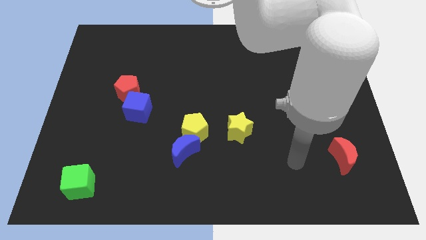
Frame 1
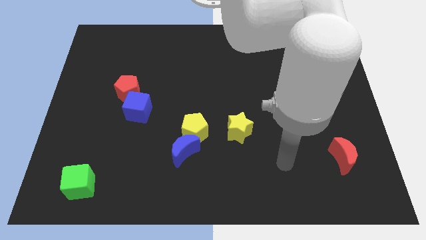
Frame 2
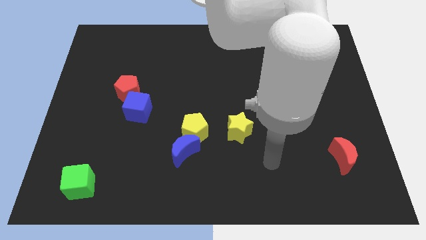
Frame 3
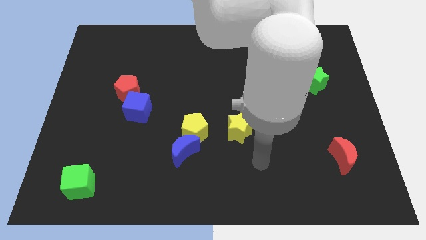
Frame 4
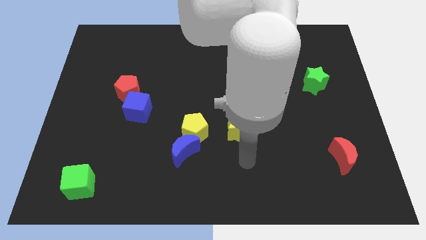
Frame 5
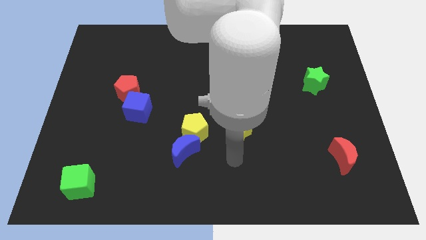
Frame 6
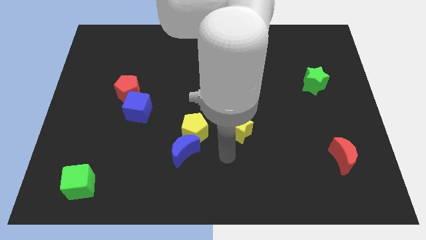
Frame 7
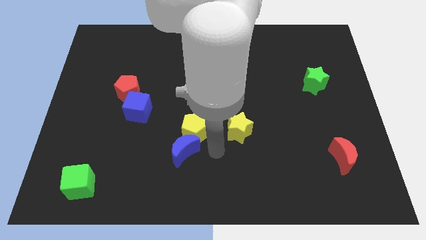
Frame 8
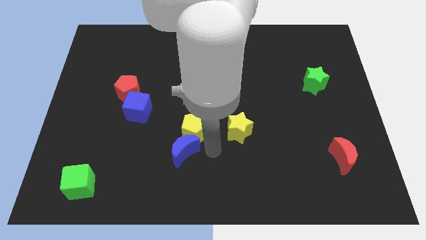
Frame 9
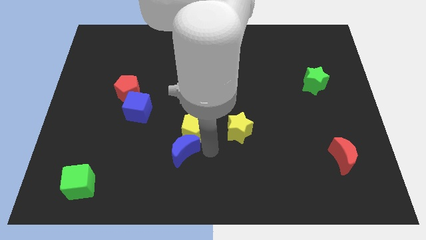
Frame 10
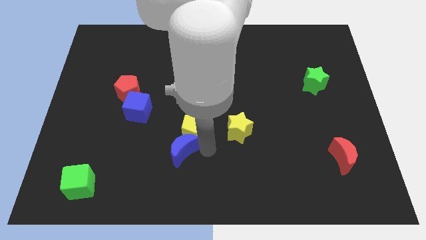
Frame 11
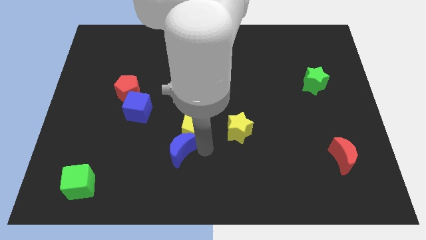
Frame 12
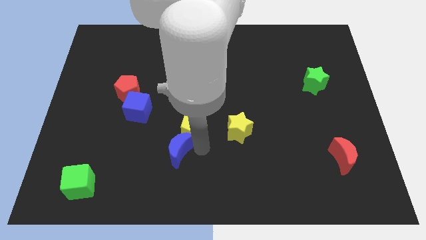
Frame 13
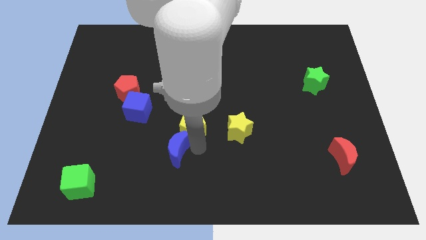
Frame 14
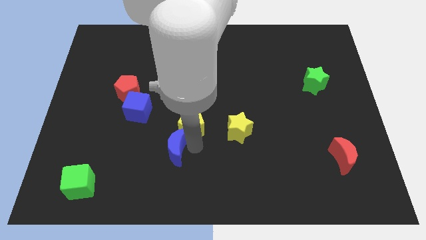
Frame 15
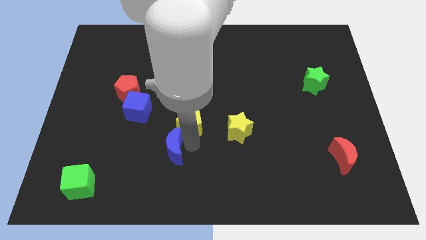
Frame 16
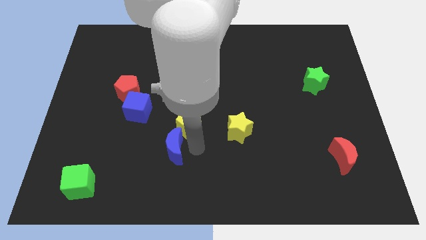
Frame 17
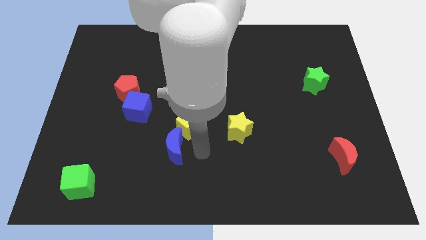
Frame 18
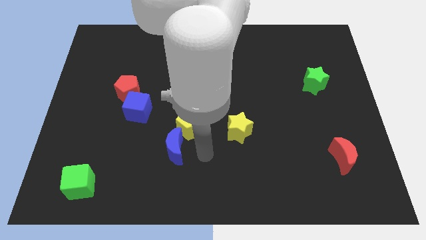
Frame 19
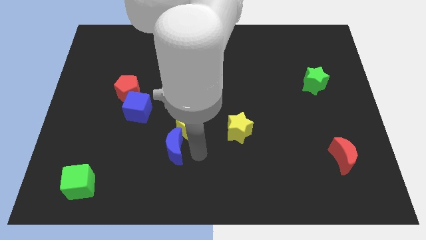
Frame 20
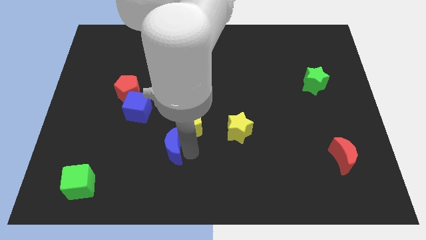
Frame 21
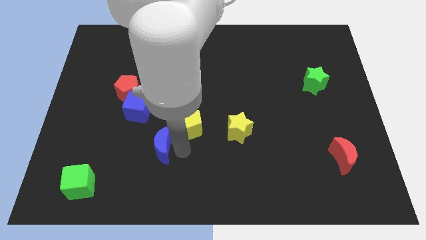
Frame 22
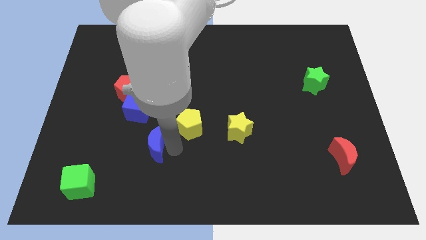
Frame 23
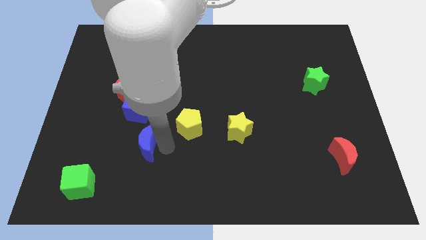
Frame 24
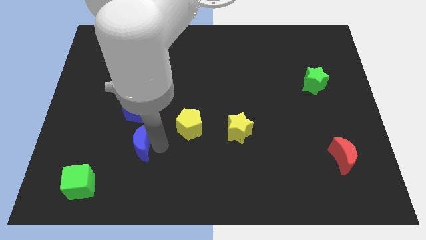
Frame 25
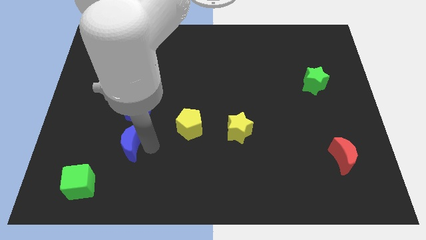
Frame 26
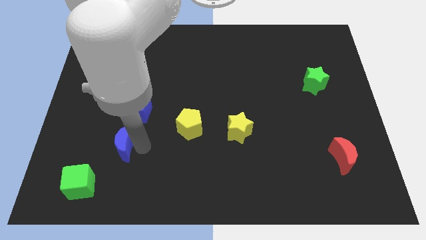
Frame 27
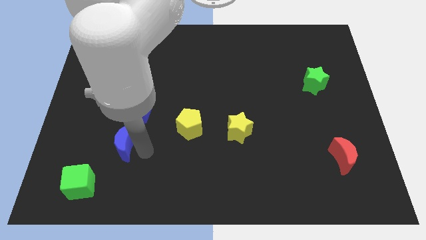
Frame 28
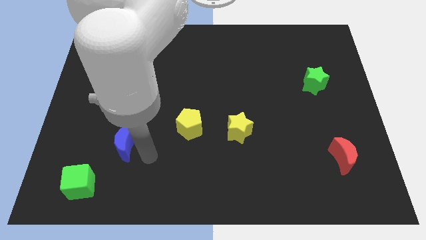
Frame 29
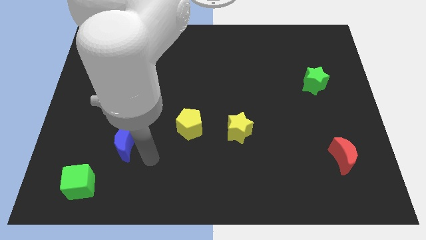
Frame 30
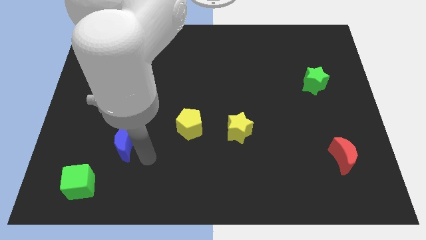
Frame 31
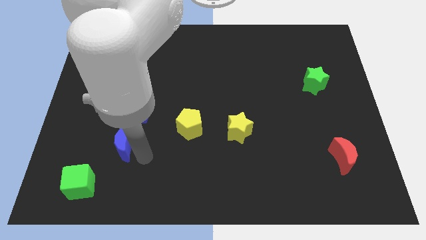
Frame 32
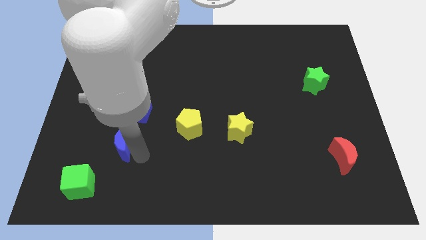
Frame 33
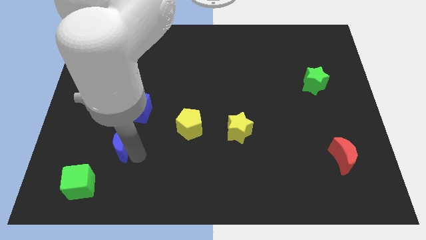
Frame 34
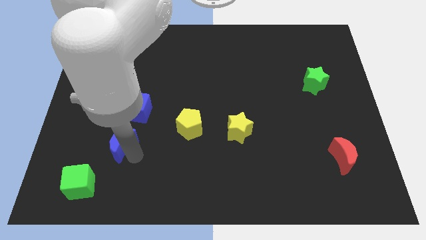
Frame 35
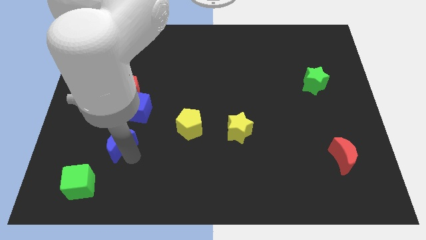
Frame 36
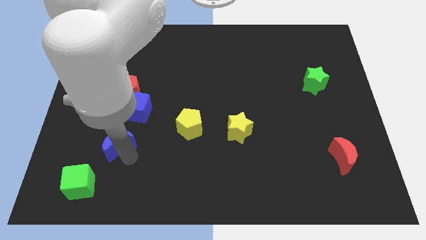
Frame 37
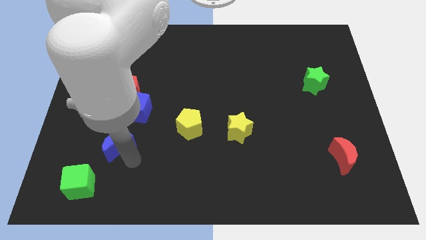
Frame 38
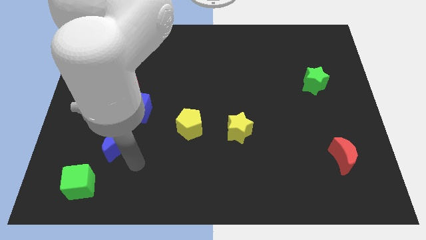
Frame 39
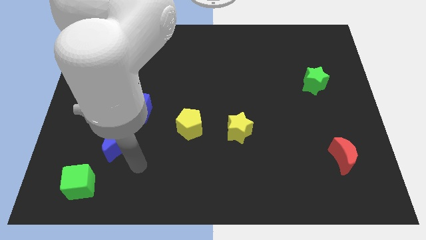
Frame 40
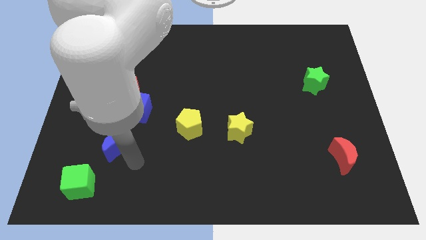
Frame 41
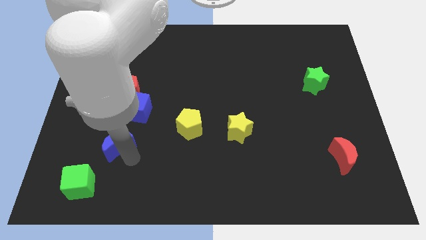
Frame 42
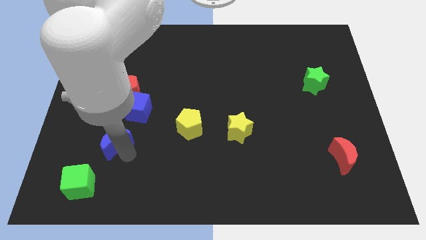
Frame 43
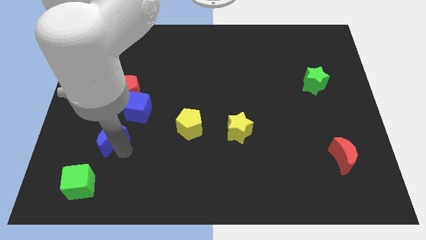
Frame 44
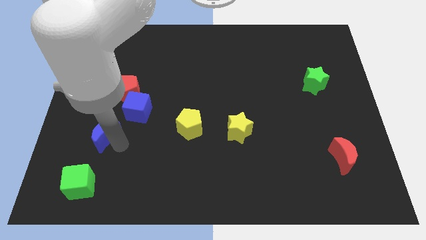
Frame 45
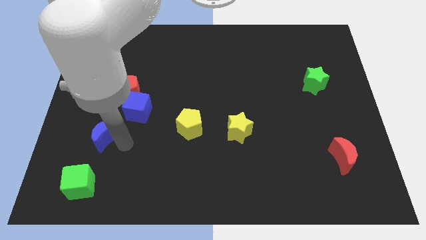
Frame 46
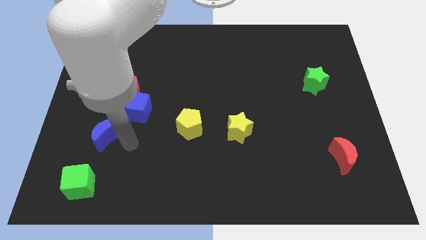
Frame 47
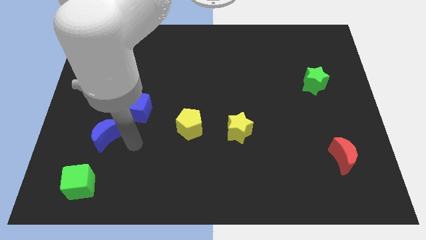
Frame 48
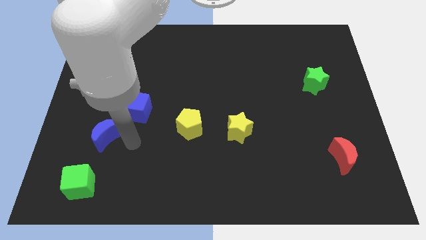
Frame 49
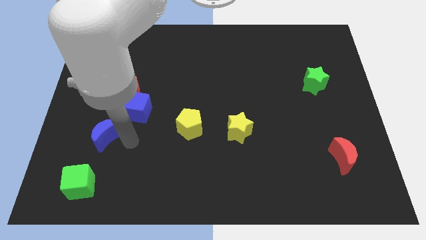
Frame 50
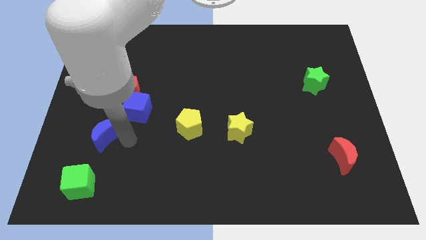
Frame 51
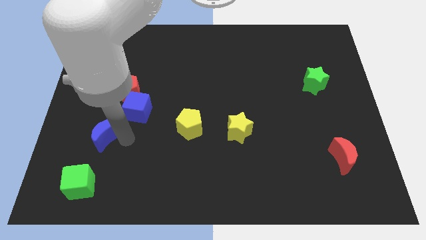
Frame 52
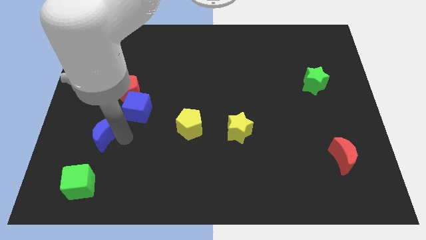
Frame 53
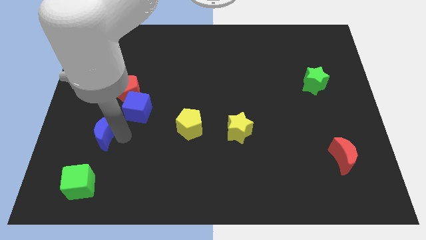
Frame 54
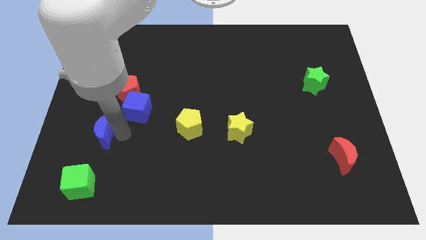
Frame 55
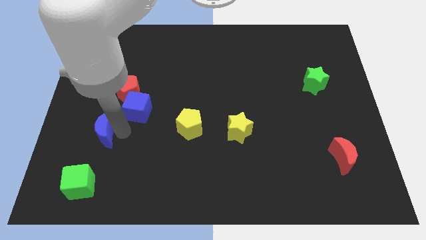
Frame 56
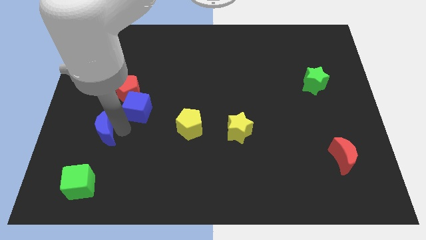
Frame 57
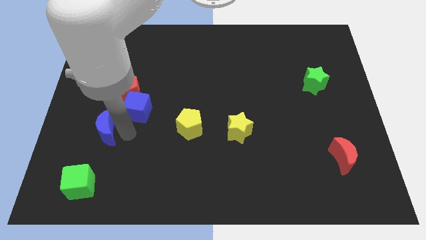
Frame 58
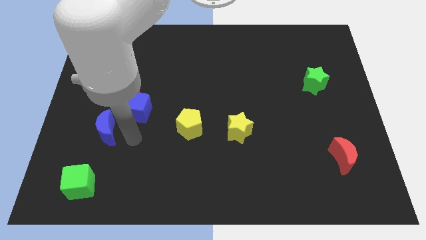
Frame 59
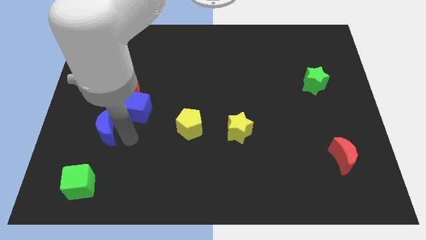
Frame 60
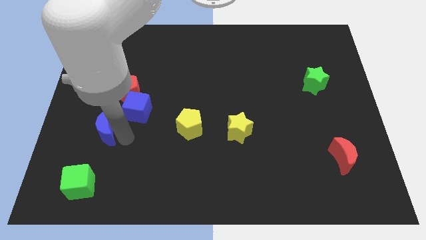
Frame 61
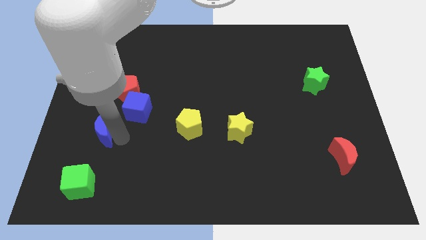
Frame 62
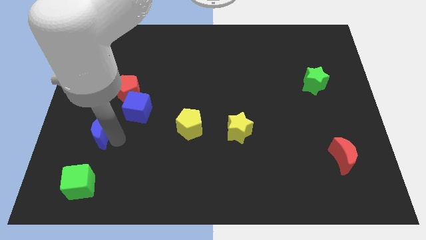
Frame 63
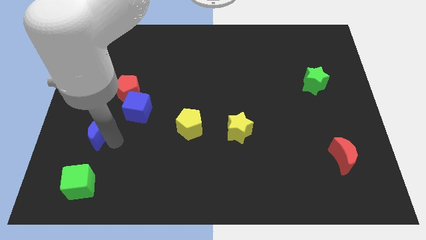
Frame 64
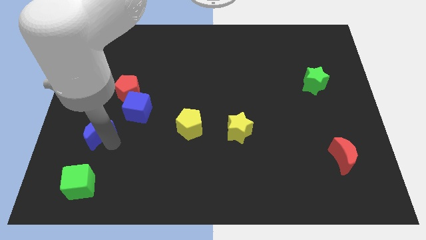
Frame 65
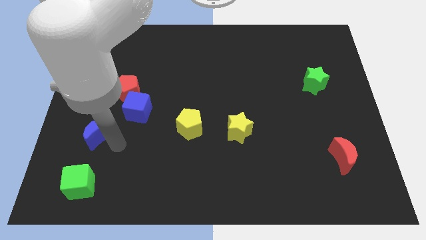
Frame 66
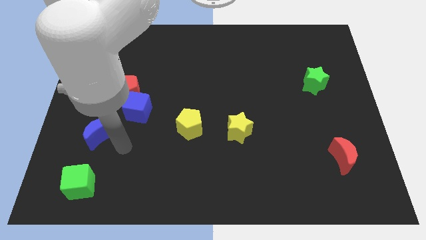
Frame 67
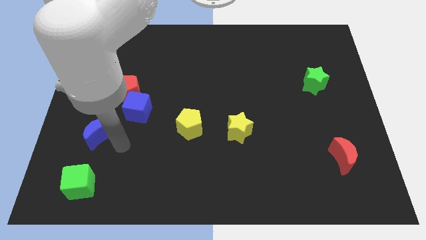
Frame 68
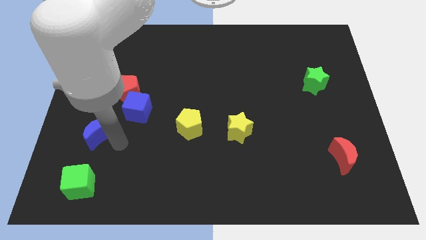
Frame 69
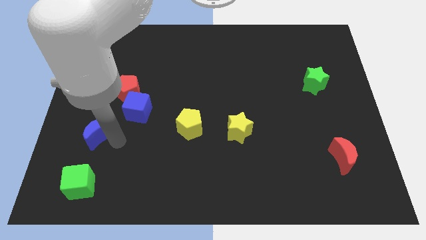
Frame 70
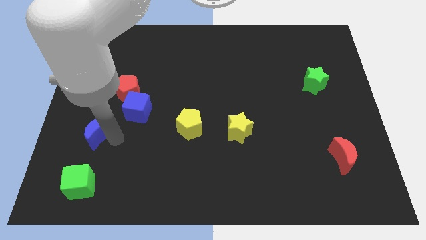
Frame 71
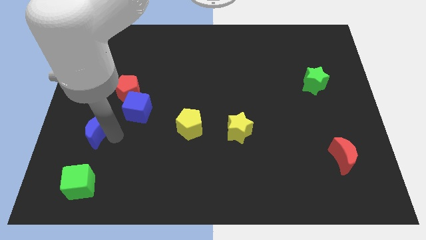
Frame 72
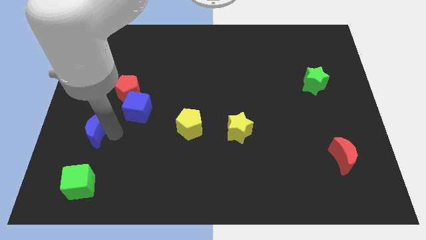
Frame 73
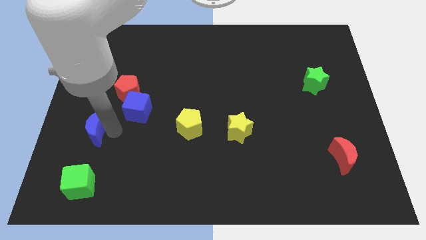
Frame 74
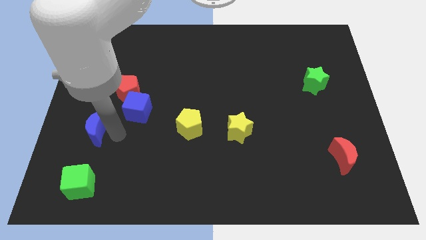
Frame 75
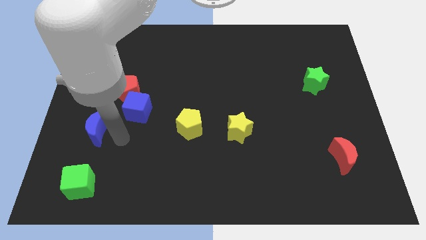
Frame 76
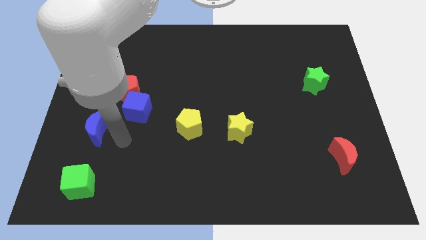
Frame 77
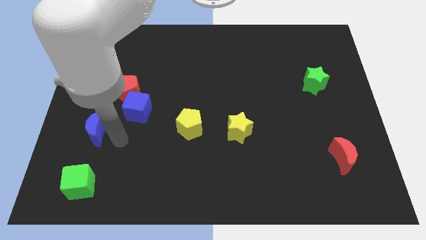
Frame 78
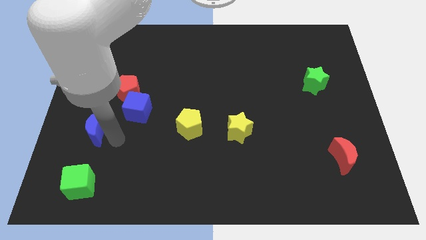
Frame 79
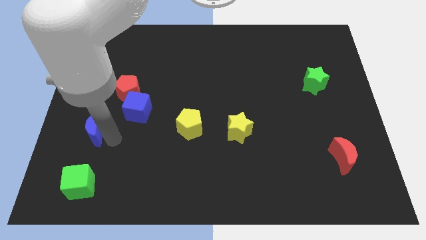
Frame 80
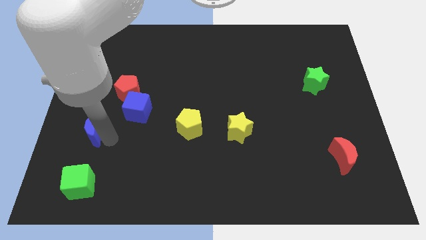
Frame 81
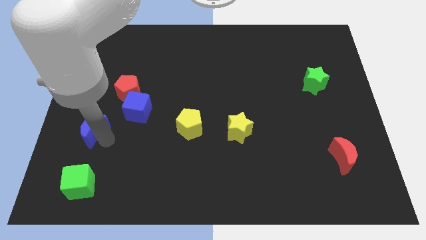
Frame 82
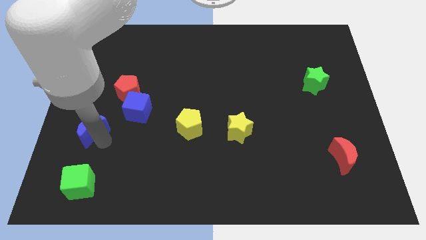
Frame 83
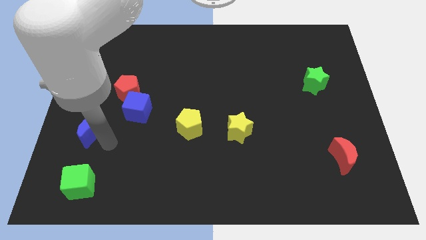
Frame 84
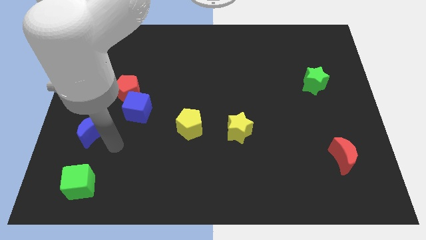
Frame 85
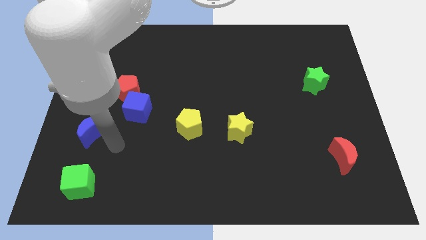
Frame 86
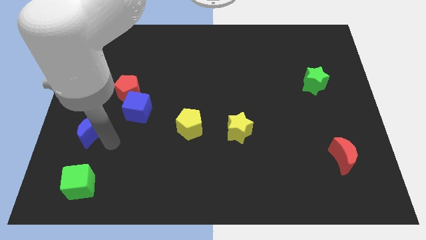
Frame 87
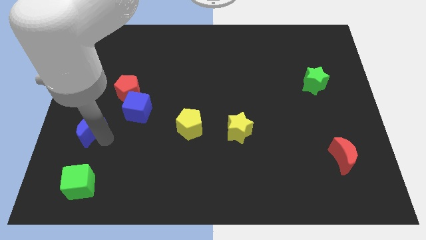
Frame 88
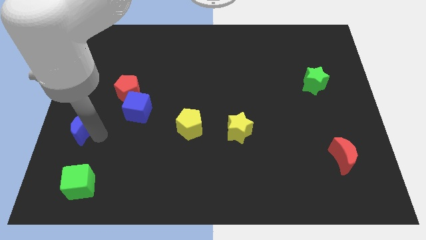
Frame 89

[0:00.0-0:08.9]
move the blue moon to the left side
